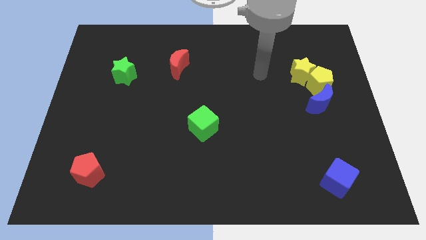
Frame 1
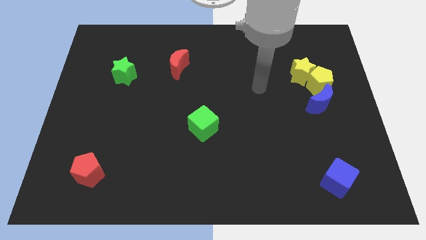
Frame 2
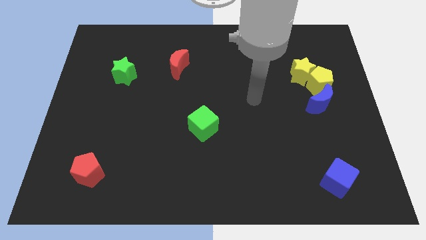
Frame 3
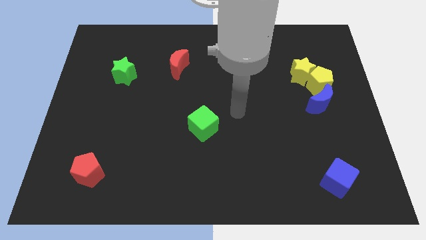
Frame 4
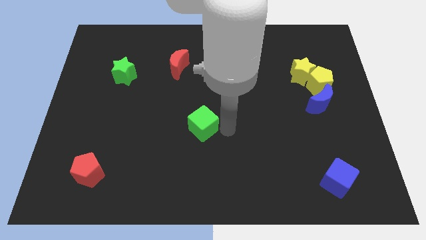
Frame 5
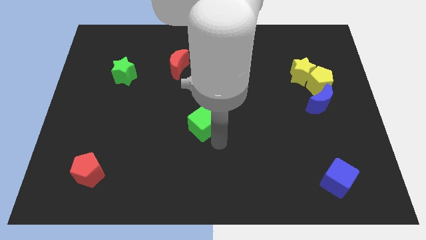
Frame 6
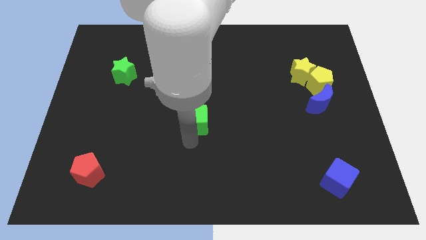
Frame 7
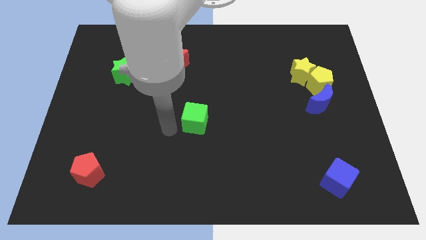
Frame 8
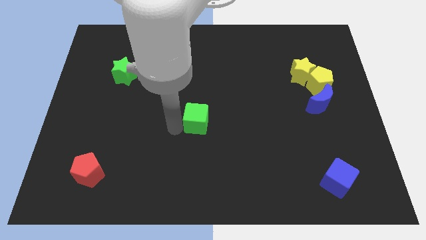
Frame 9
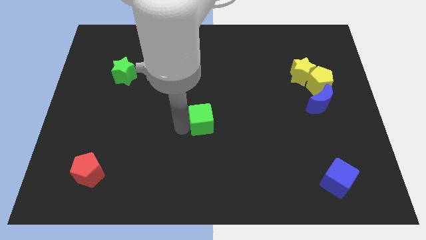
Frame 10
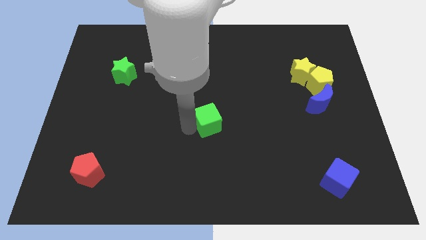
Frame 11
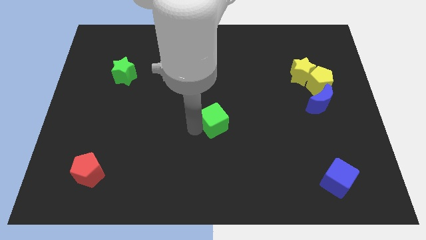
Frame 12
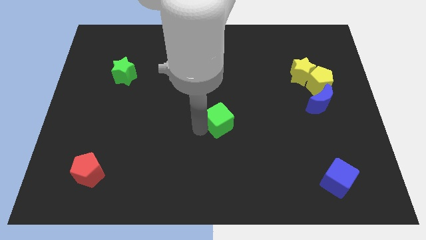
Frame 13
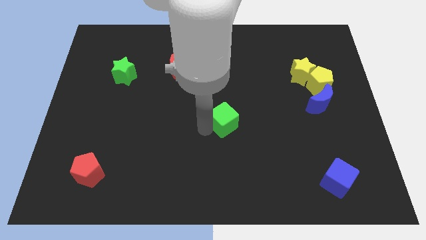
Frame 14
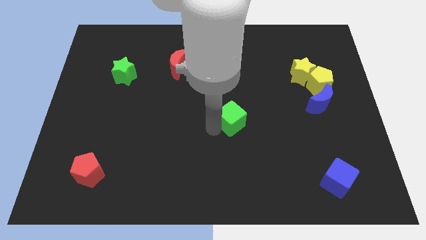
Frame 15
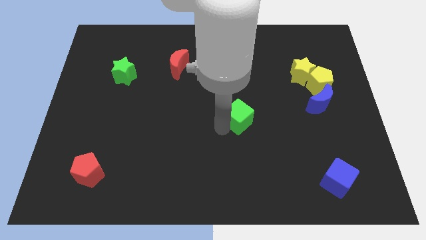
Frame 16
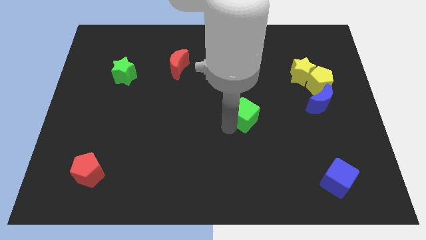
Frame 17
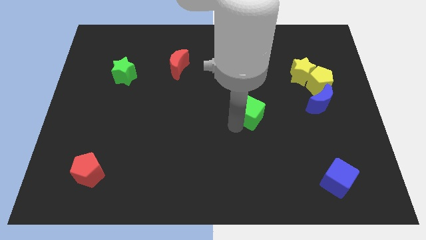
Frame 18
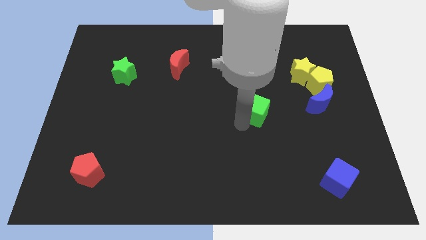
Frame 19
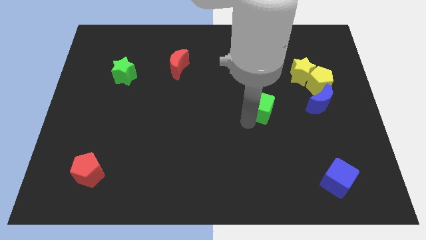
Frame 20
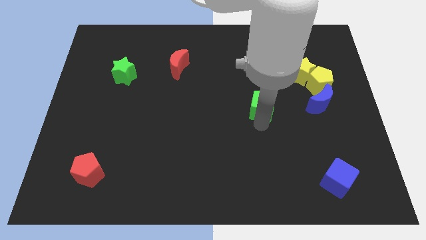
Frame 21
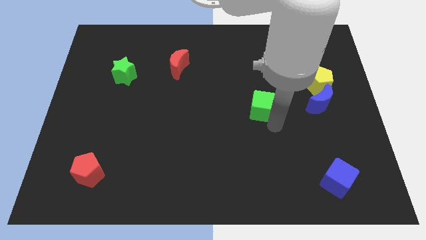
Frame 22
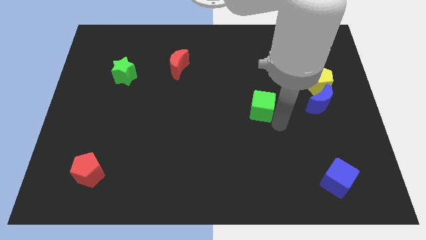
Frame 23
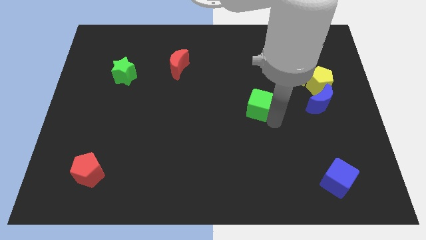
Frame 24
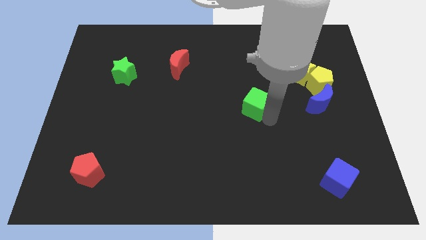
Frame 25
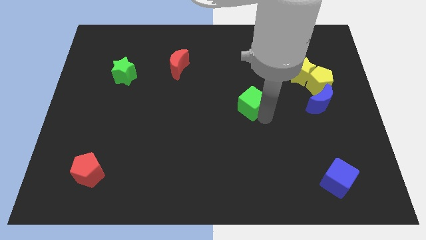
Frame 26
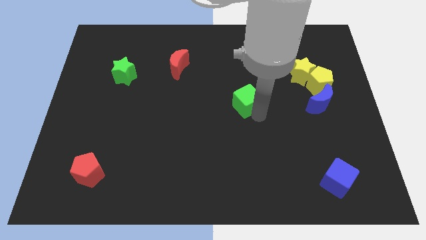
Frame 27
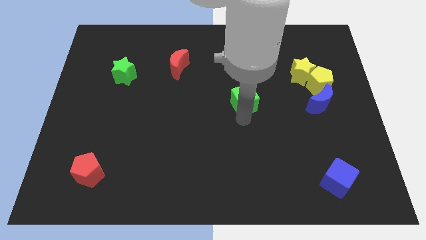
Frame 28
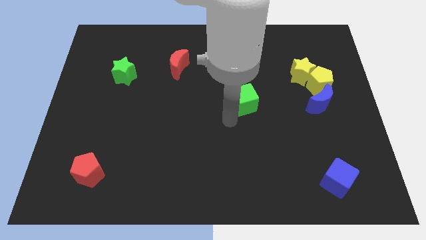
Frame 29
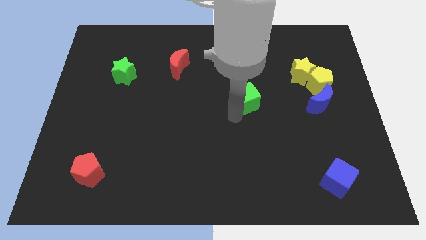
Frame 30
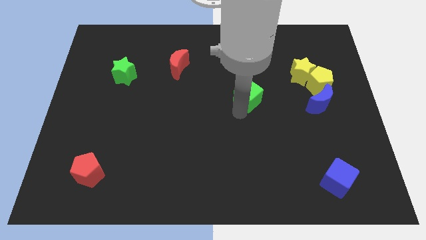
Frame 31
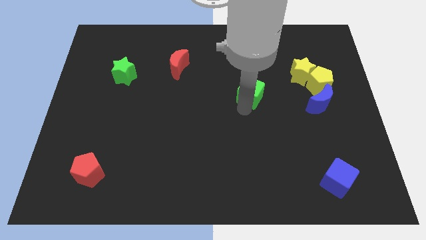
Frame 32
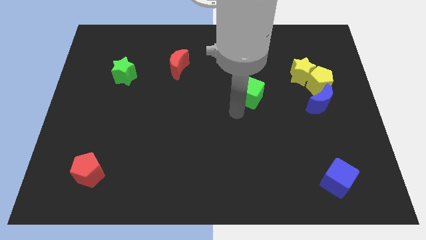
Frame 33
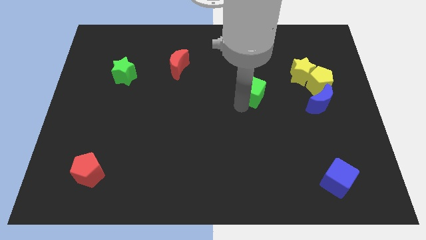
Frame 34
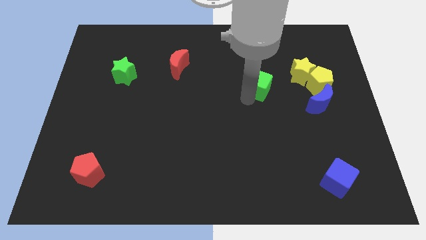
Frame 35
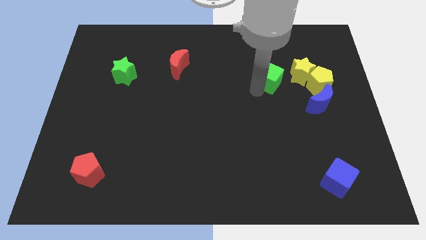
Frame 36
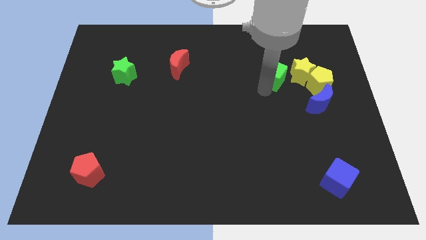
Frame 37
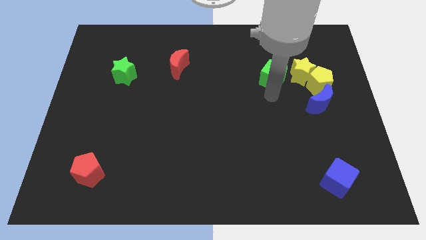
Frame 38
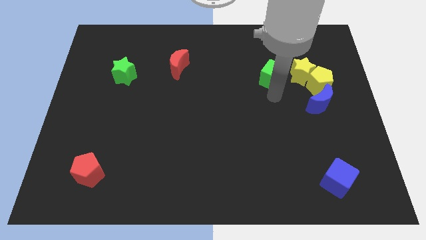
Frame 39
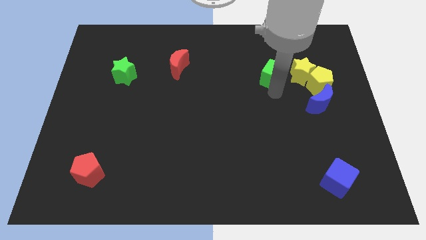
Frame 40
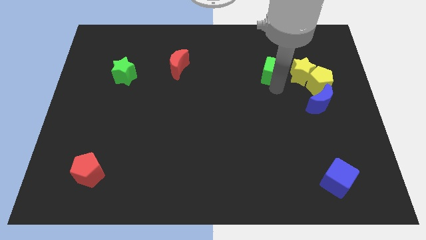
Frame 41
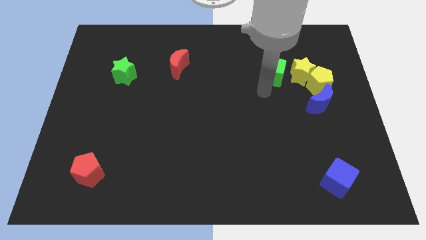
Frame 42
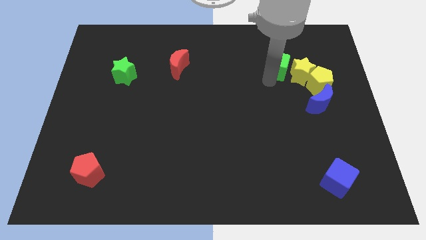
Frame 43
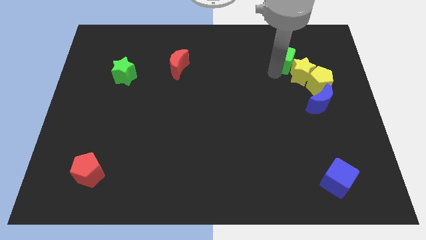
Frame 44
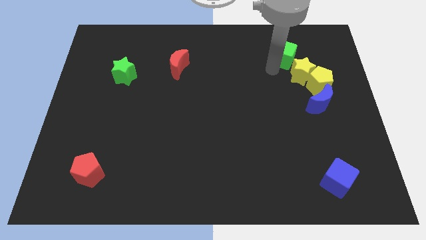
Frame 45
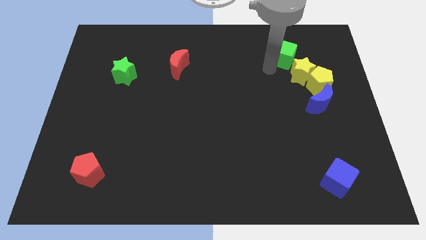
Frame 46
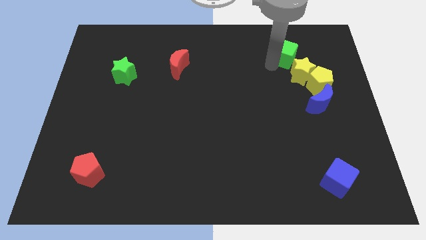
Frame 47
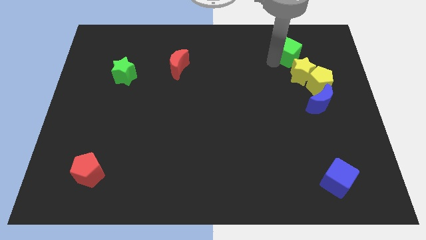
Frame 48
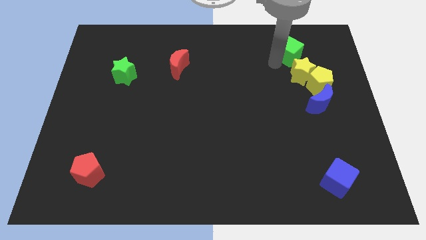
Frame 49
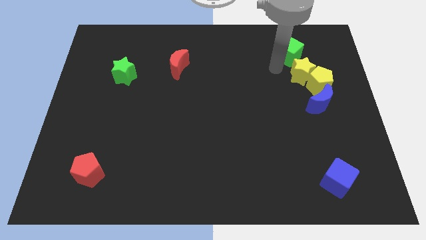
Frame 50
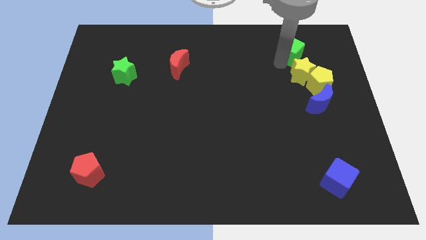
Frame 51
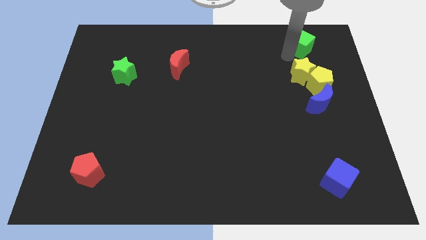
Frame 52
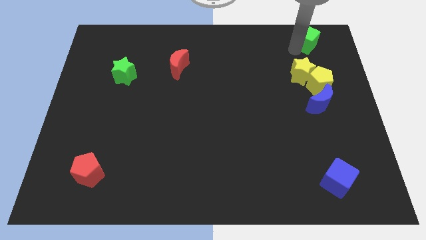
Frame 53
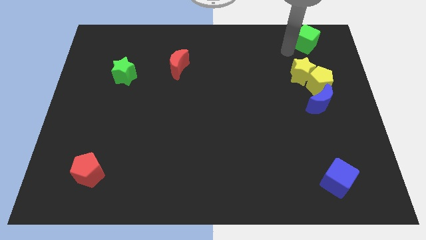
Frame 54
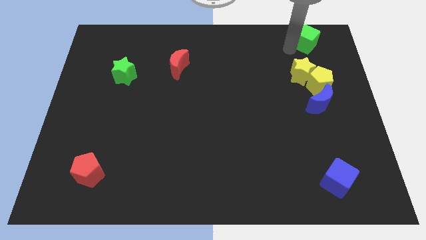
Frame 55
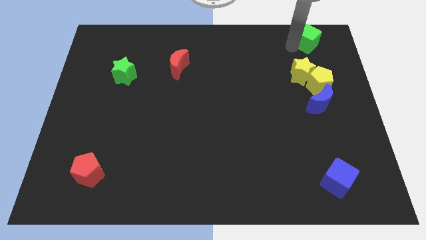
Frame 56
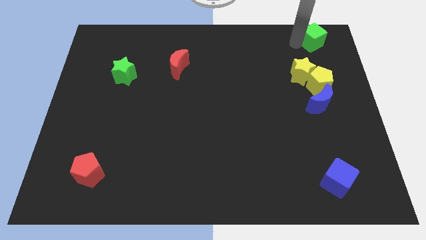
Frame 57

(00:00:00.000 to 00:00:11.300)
put the green cube to the top right
